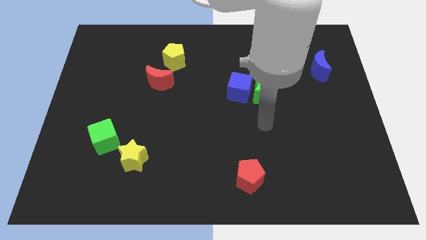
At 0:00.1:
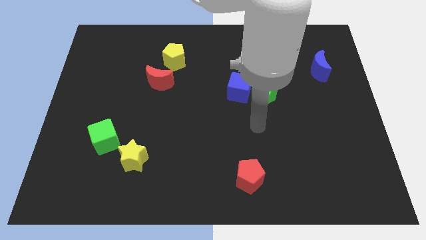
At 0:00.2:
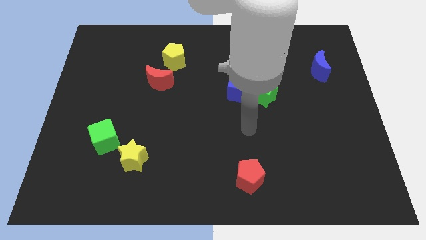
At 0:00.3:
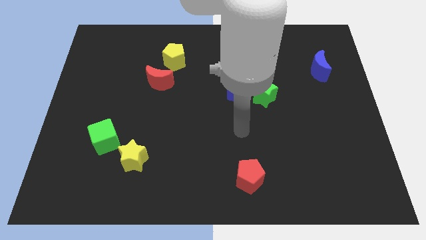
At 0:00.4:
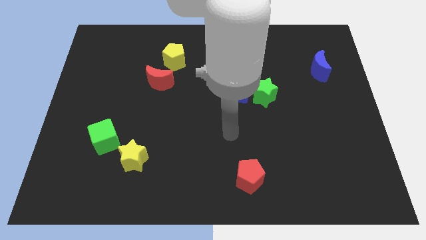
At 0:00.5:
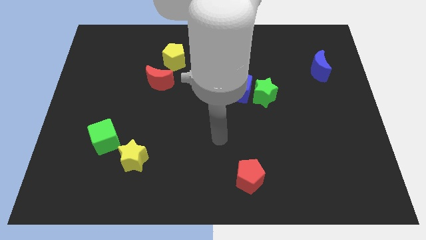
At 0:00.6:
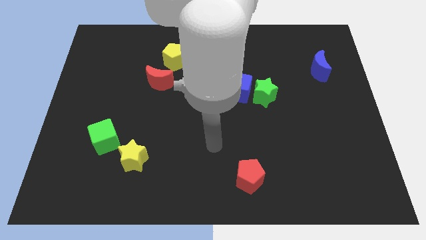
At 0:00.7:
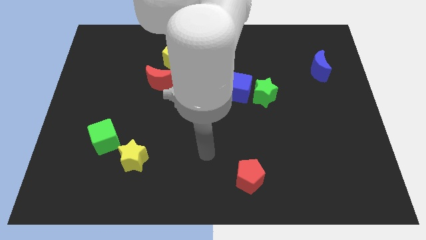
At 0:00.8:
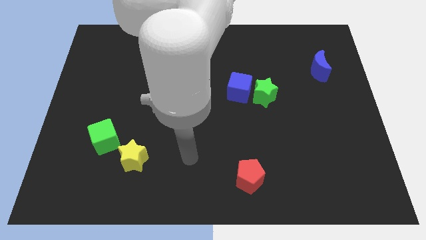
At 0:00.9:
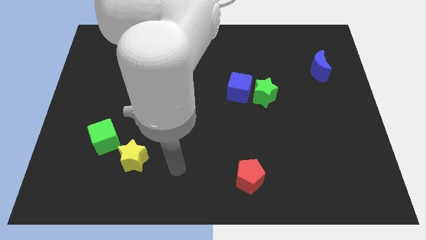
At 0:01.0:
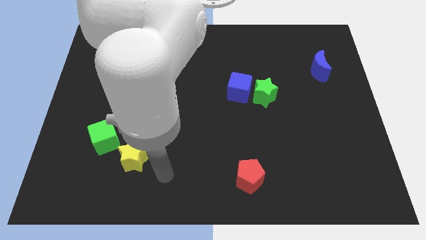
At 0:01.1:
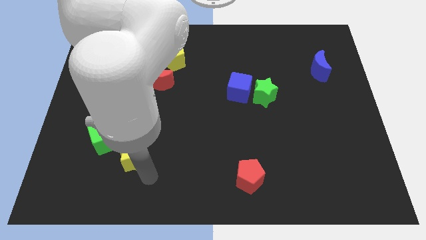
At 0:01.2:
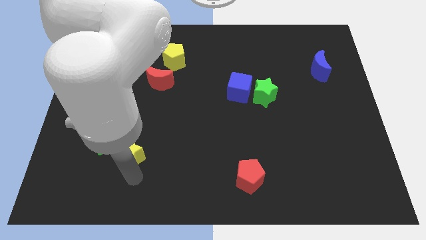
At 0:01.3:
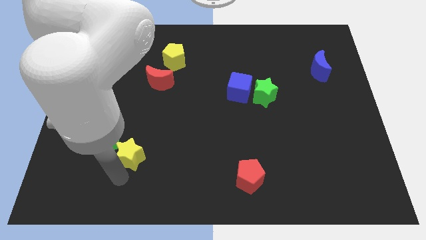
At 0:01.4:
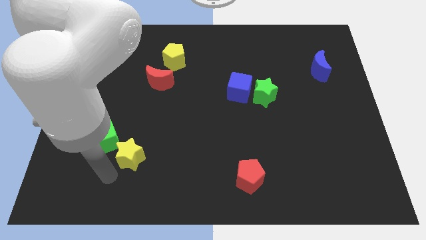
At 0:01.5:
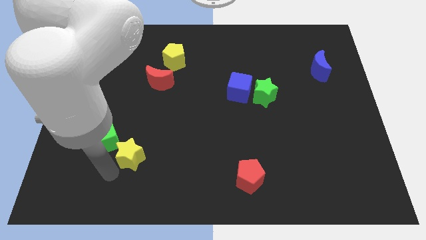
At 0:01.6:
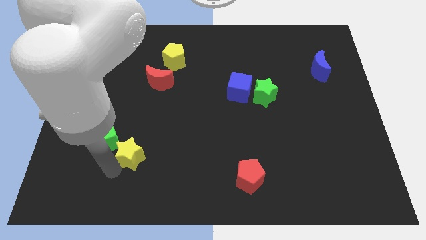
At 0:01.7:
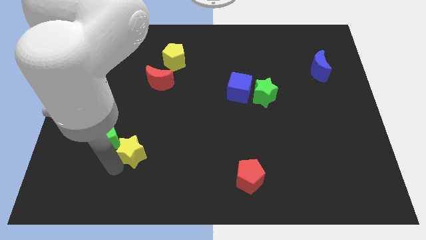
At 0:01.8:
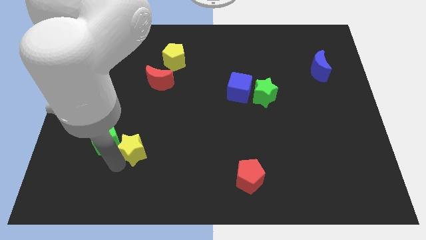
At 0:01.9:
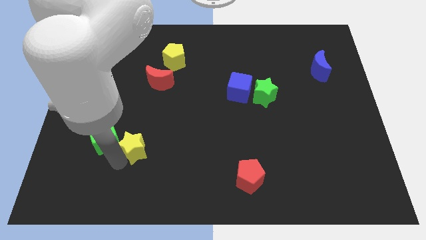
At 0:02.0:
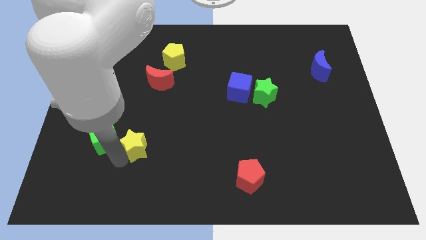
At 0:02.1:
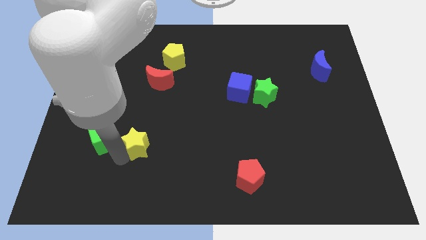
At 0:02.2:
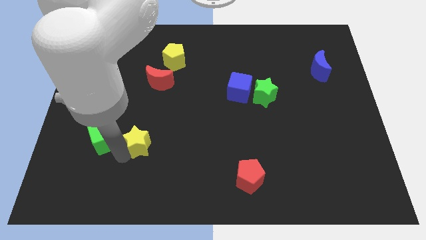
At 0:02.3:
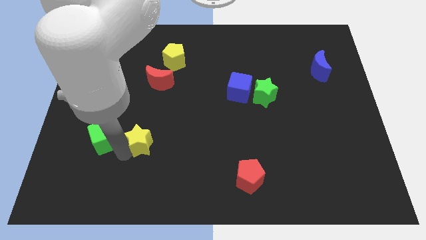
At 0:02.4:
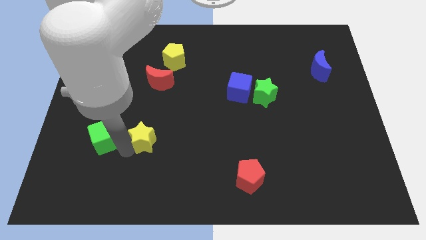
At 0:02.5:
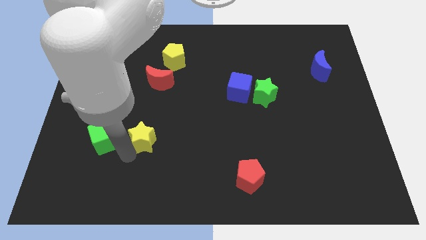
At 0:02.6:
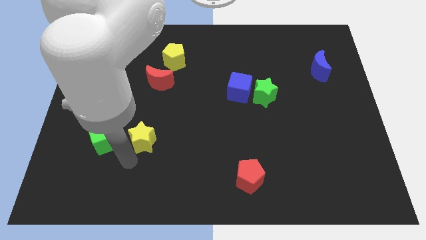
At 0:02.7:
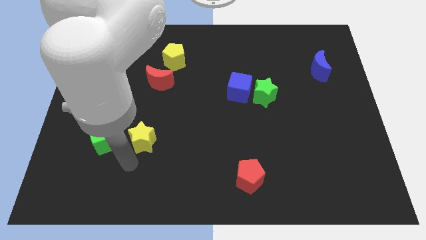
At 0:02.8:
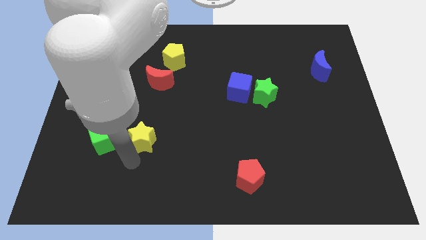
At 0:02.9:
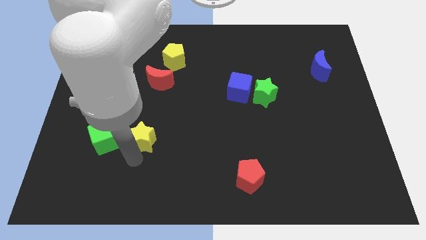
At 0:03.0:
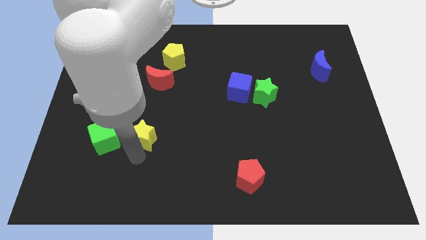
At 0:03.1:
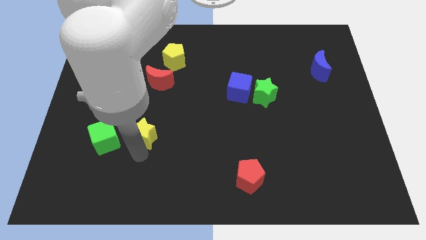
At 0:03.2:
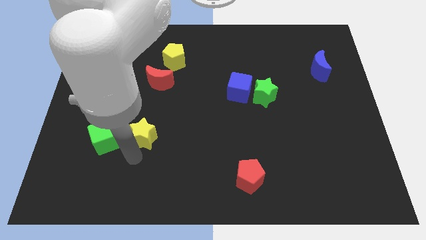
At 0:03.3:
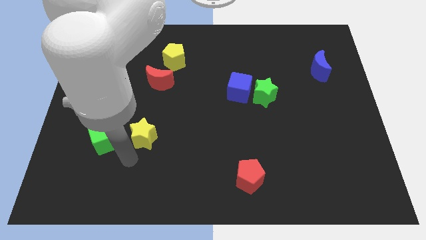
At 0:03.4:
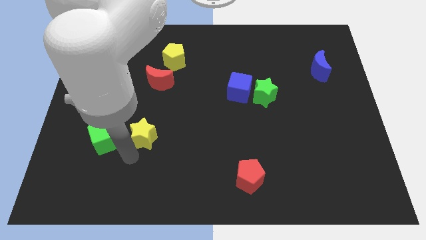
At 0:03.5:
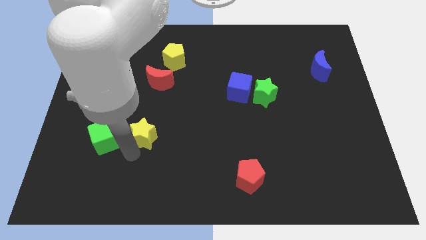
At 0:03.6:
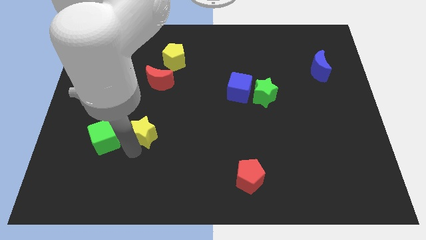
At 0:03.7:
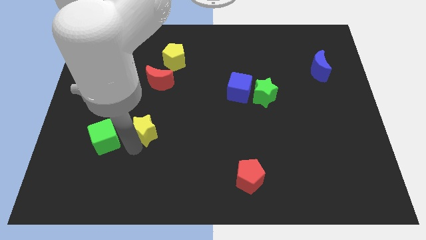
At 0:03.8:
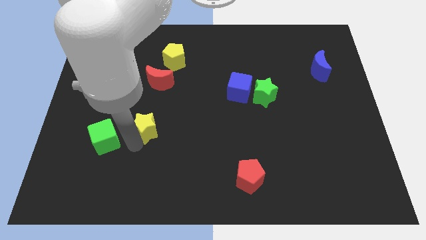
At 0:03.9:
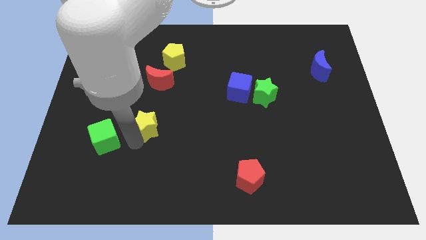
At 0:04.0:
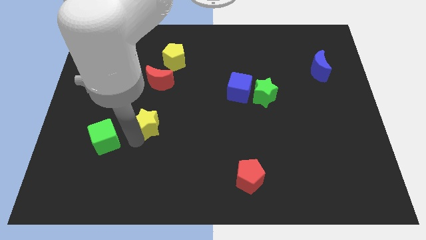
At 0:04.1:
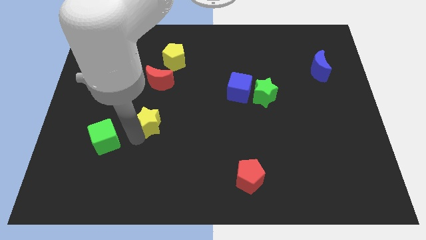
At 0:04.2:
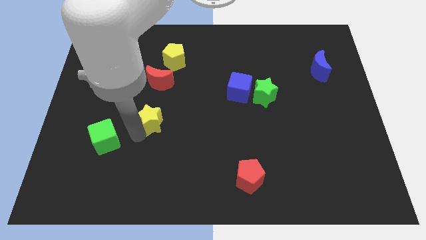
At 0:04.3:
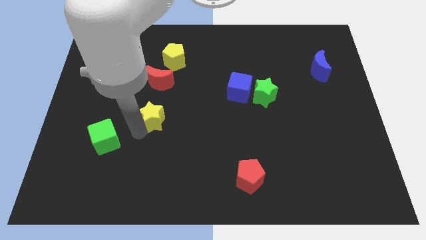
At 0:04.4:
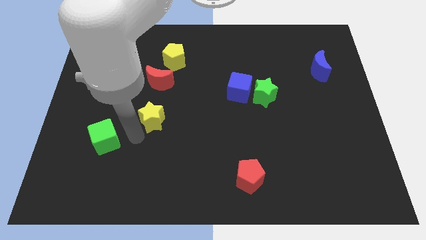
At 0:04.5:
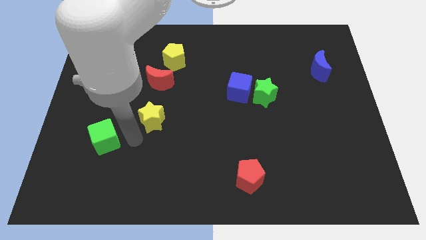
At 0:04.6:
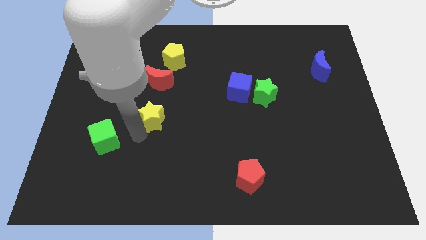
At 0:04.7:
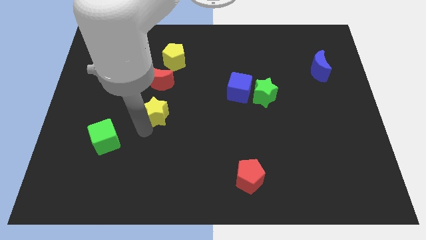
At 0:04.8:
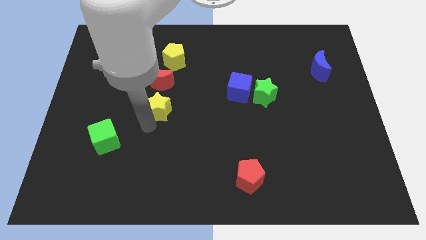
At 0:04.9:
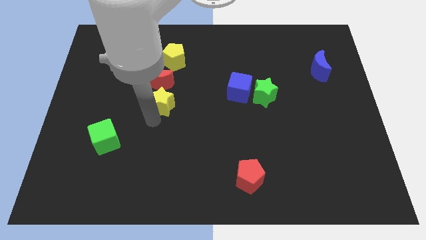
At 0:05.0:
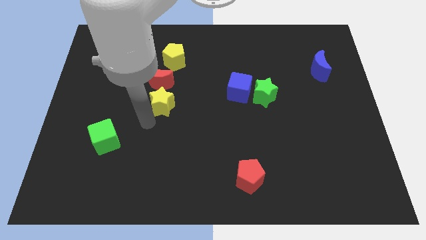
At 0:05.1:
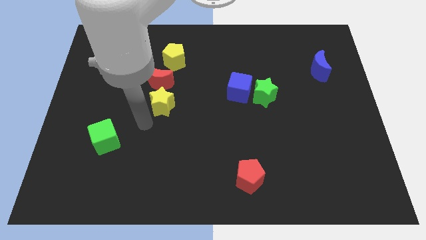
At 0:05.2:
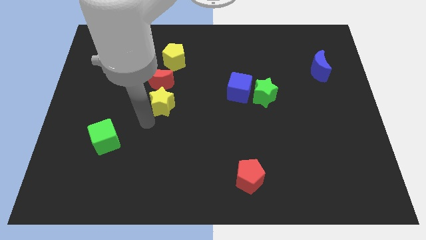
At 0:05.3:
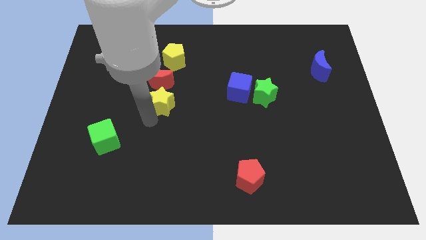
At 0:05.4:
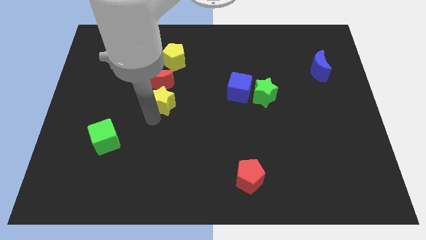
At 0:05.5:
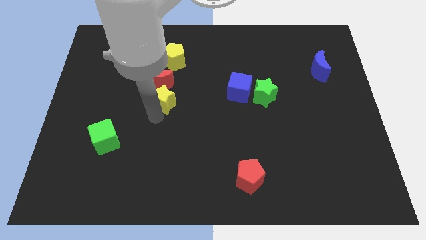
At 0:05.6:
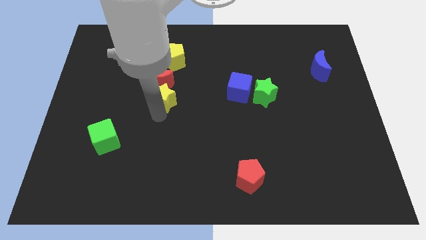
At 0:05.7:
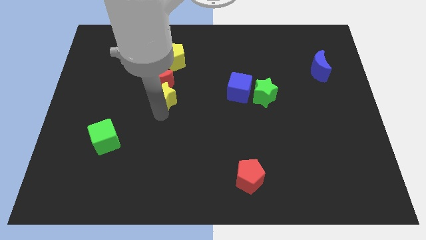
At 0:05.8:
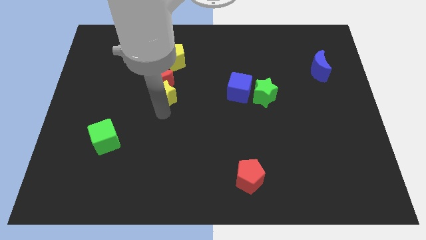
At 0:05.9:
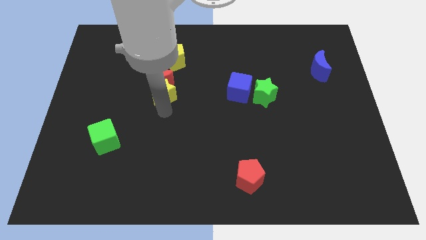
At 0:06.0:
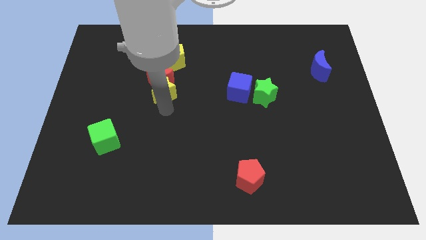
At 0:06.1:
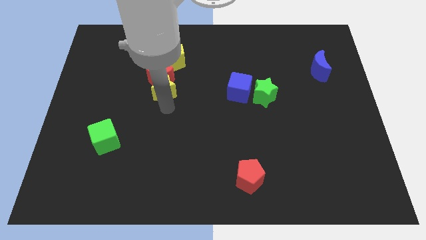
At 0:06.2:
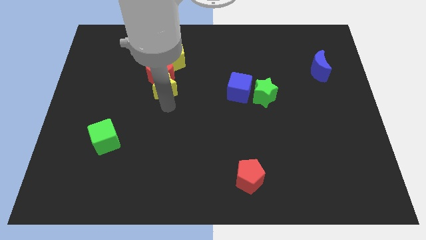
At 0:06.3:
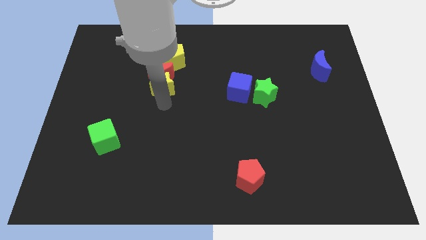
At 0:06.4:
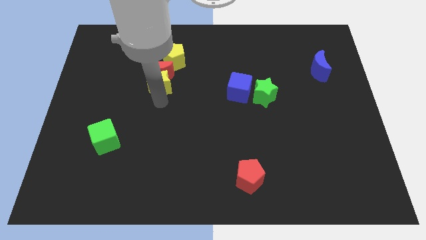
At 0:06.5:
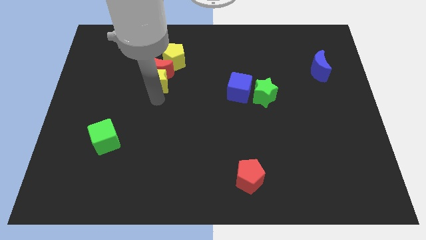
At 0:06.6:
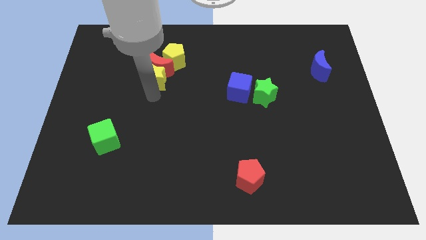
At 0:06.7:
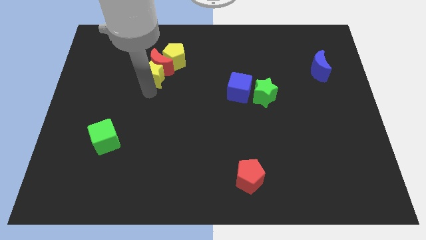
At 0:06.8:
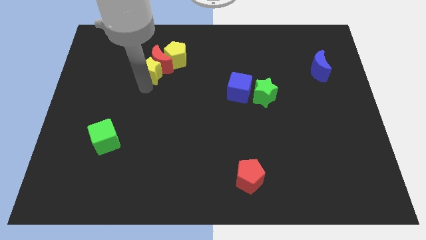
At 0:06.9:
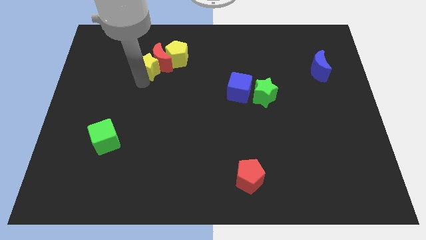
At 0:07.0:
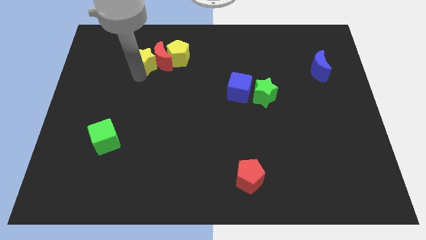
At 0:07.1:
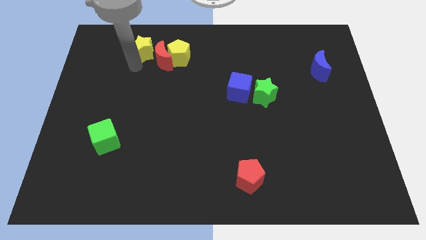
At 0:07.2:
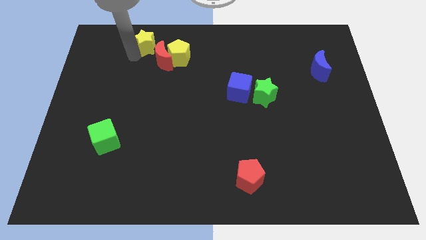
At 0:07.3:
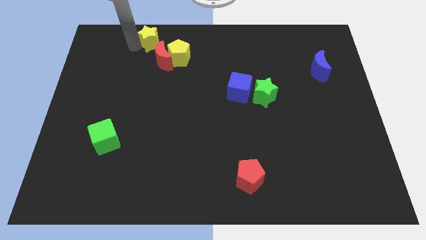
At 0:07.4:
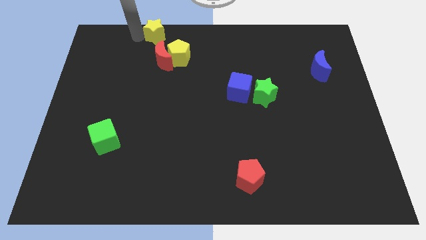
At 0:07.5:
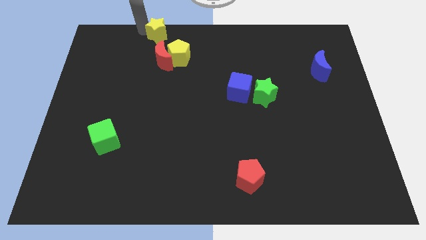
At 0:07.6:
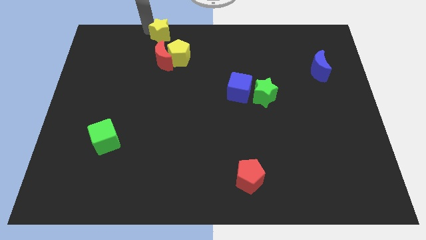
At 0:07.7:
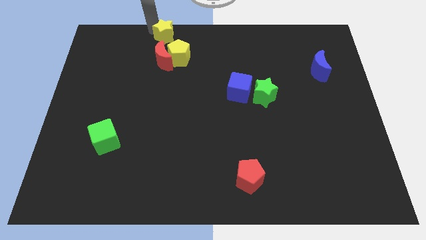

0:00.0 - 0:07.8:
move the yellow star to the top side
